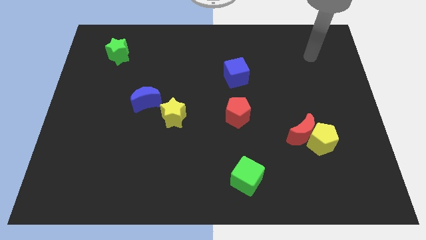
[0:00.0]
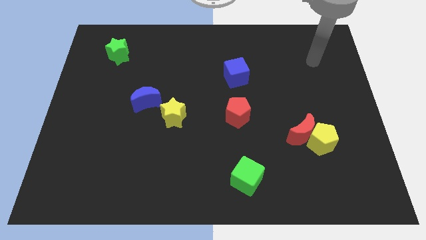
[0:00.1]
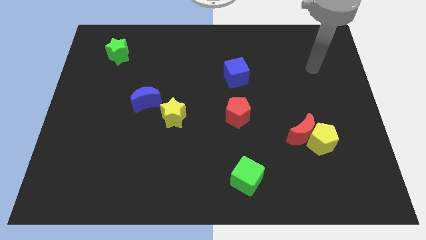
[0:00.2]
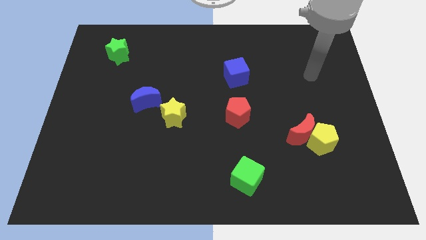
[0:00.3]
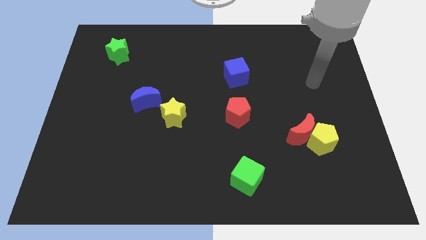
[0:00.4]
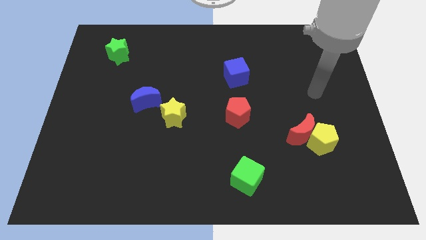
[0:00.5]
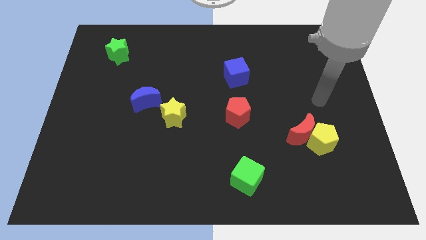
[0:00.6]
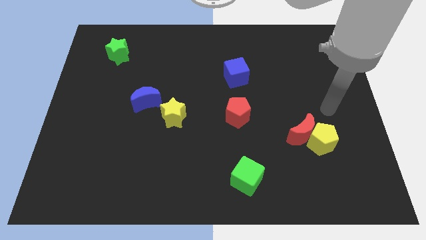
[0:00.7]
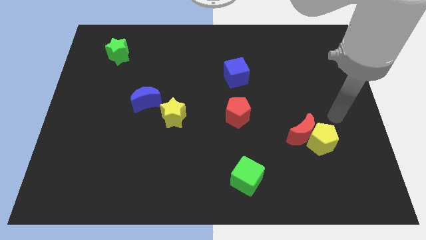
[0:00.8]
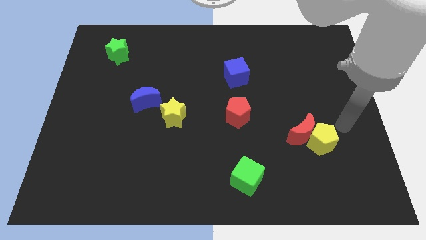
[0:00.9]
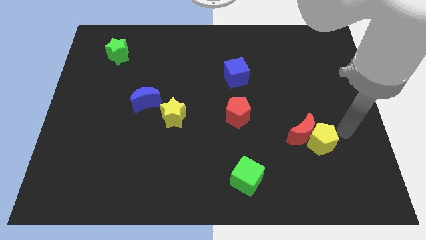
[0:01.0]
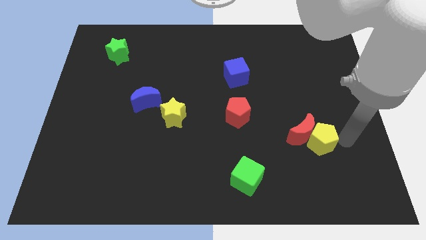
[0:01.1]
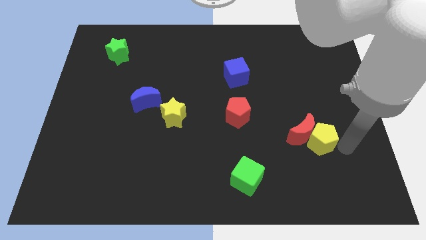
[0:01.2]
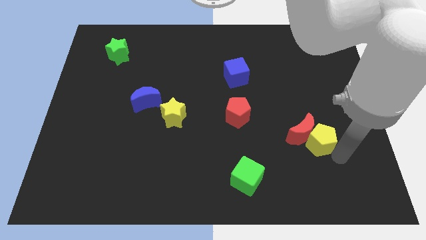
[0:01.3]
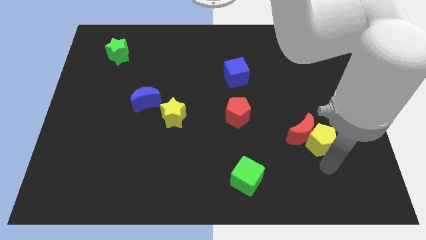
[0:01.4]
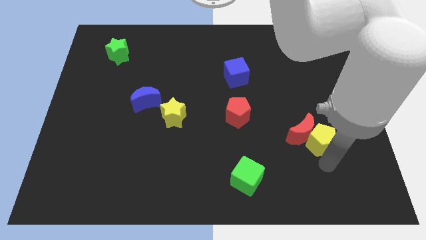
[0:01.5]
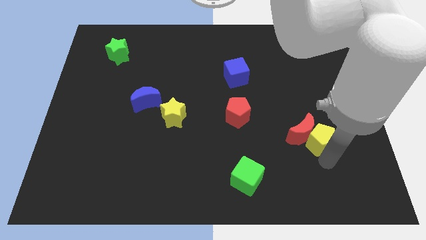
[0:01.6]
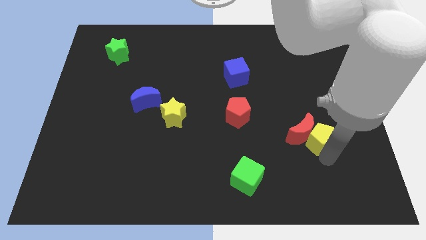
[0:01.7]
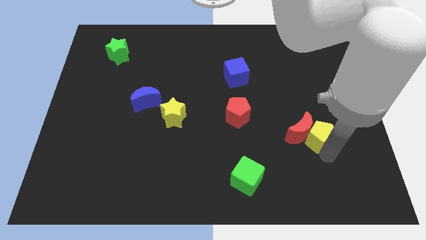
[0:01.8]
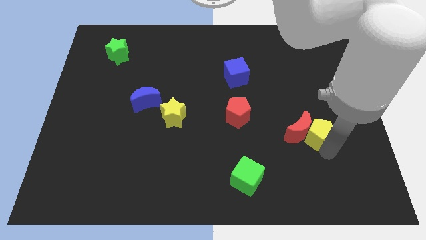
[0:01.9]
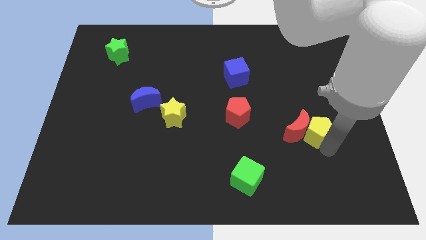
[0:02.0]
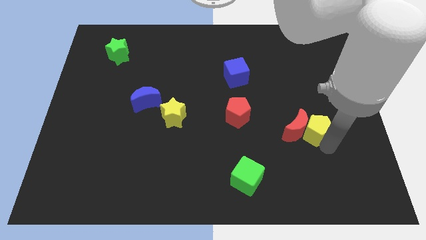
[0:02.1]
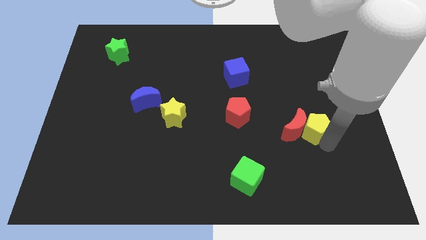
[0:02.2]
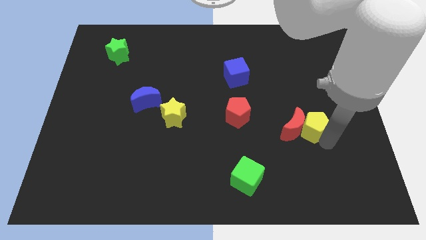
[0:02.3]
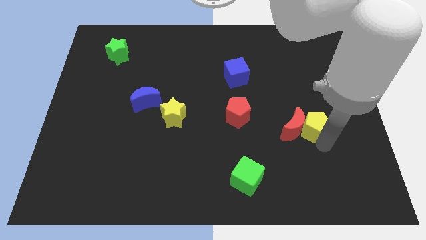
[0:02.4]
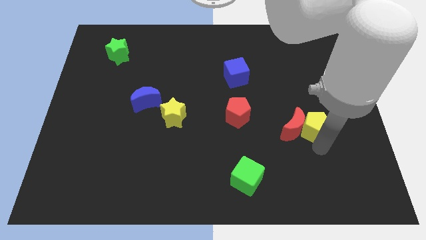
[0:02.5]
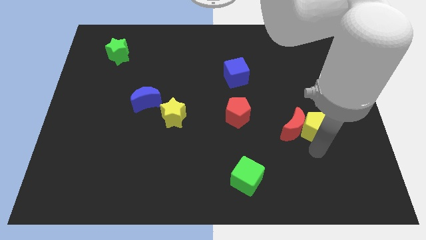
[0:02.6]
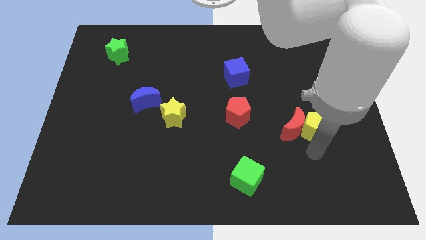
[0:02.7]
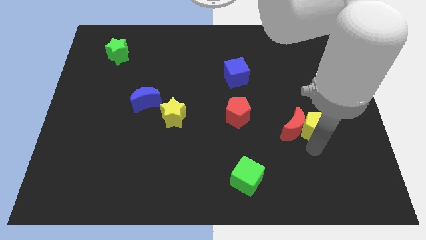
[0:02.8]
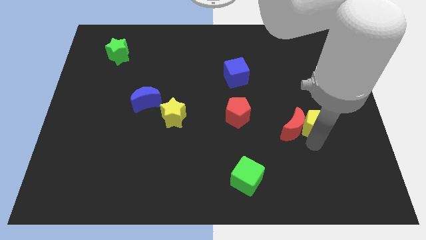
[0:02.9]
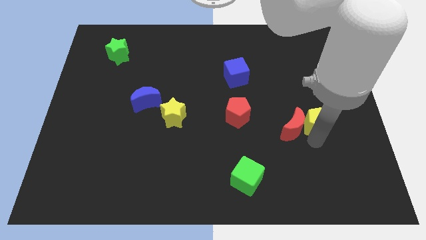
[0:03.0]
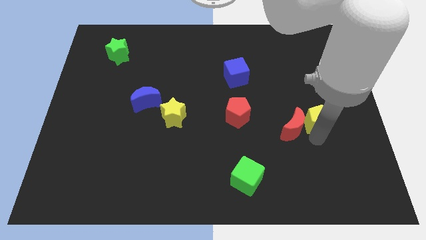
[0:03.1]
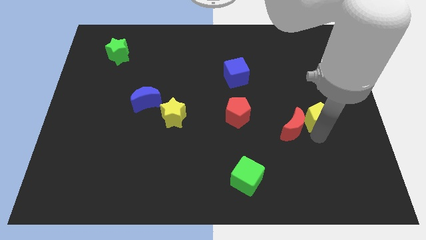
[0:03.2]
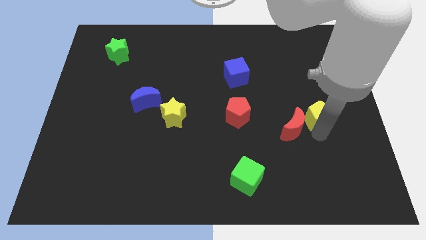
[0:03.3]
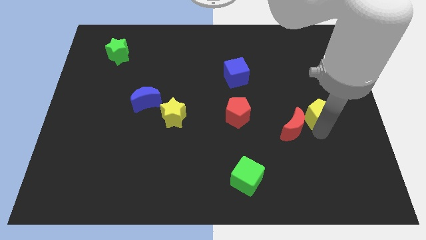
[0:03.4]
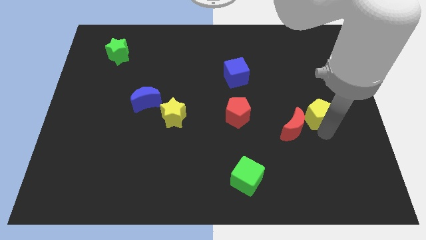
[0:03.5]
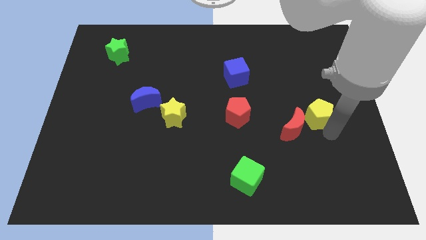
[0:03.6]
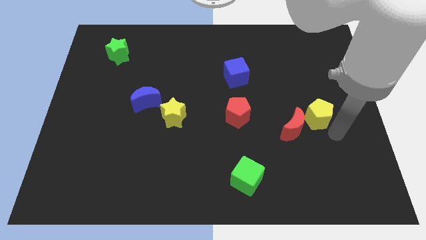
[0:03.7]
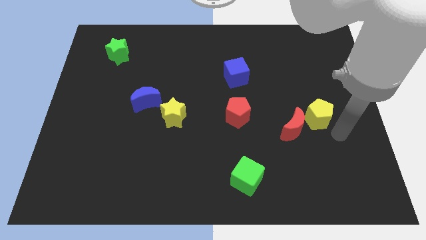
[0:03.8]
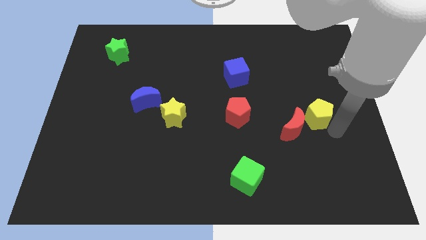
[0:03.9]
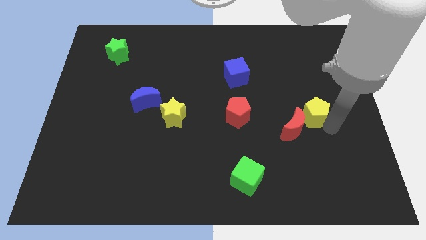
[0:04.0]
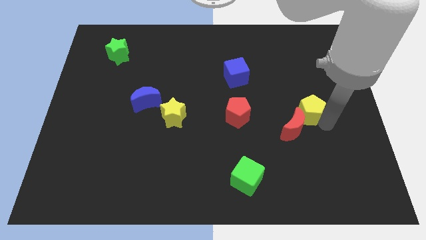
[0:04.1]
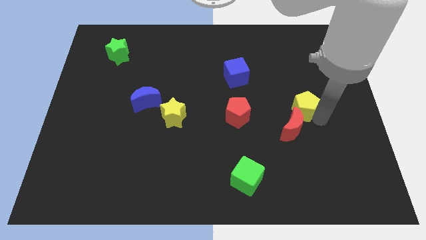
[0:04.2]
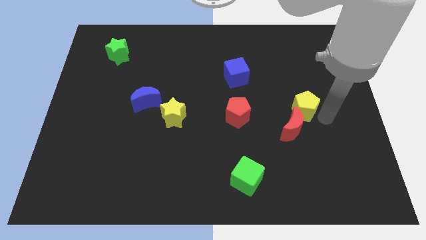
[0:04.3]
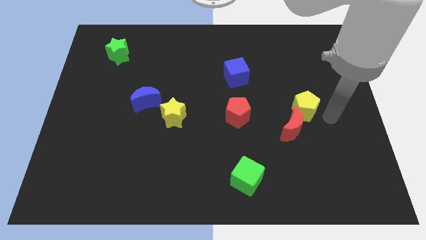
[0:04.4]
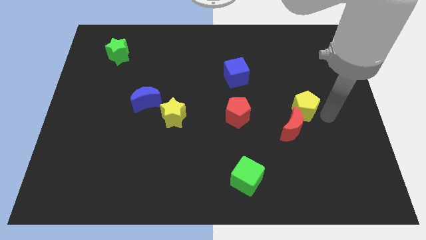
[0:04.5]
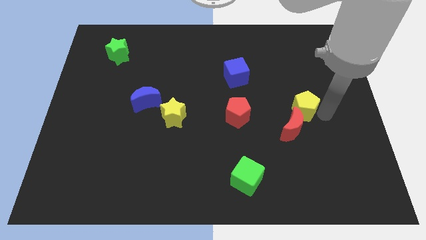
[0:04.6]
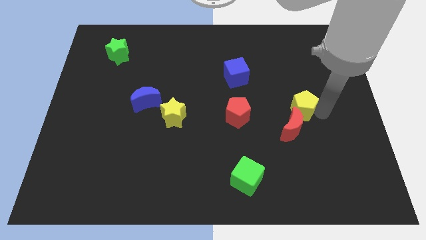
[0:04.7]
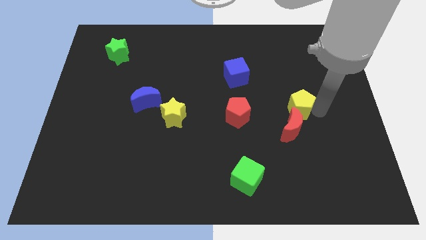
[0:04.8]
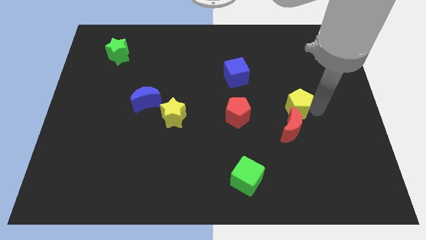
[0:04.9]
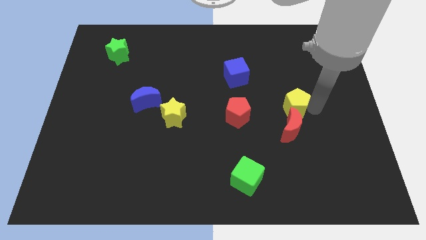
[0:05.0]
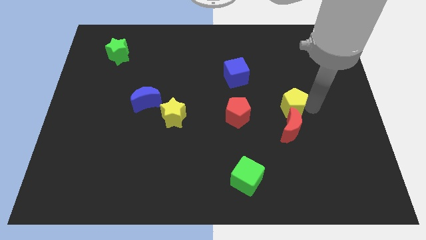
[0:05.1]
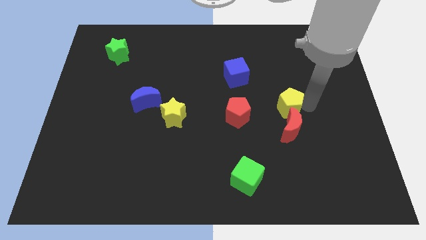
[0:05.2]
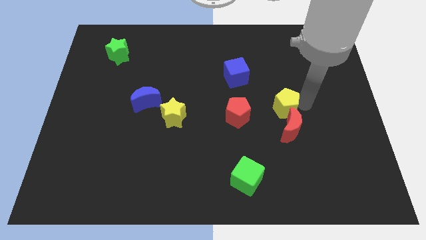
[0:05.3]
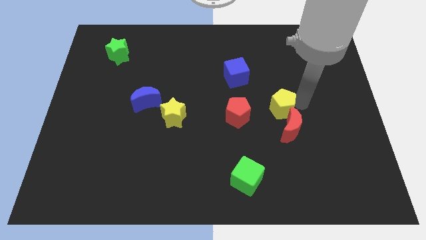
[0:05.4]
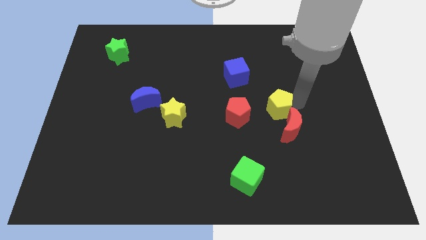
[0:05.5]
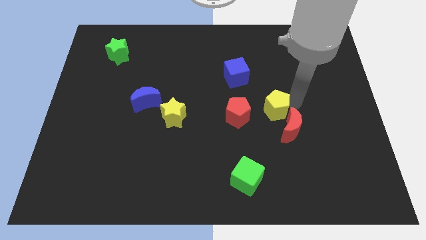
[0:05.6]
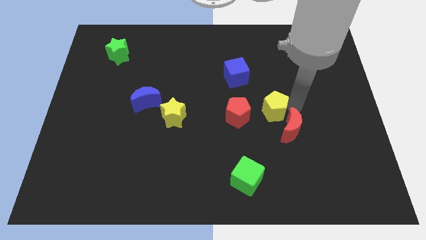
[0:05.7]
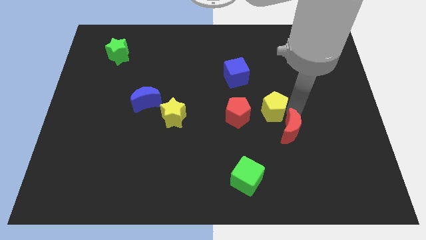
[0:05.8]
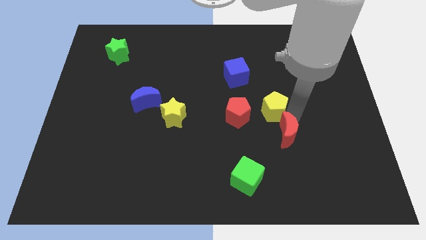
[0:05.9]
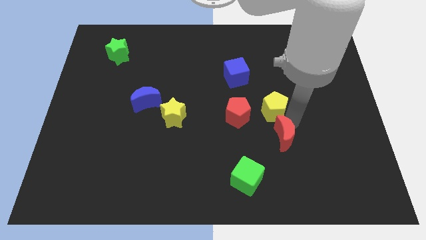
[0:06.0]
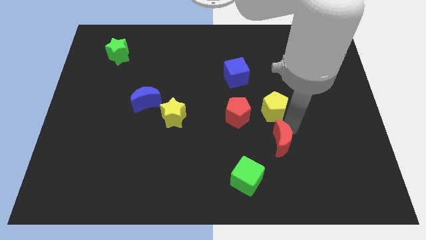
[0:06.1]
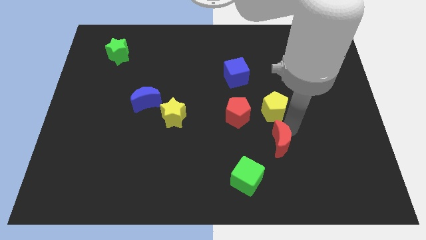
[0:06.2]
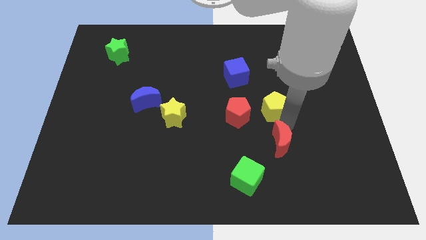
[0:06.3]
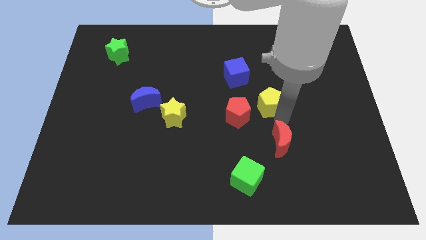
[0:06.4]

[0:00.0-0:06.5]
slide the yellow pentagon to the bottom right side of the blue cube
